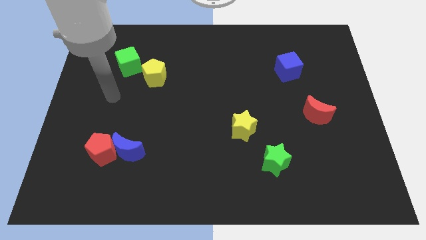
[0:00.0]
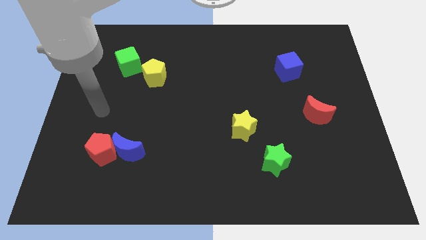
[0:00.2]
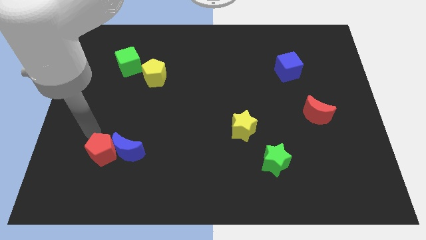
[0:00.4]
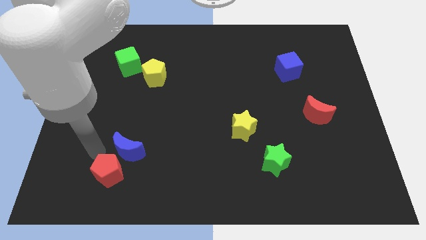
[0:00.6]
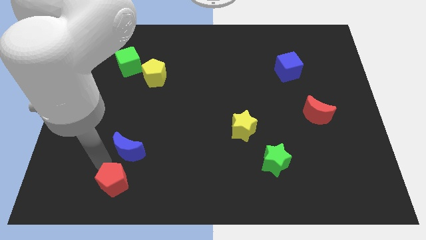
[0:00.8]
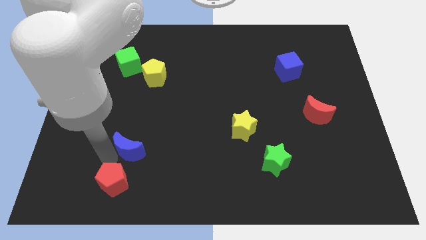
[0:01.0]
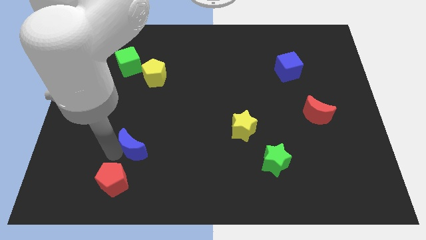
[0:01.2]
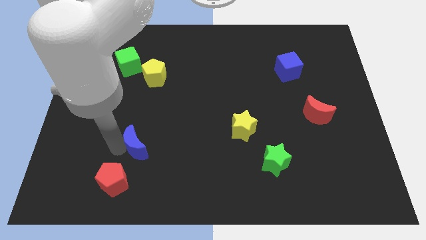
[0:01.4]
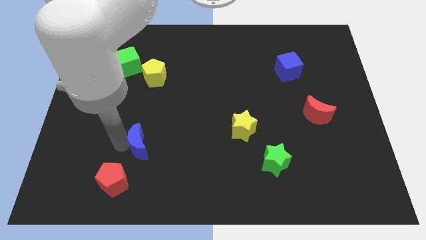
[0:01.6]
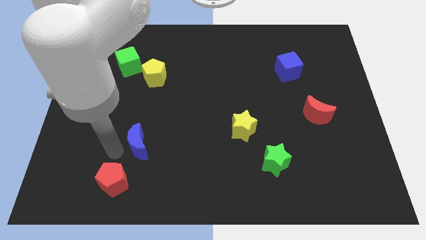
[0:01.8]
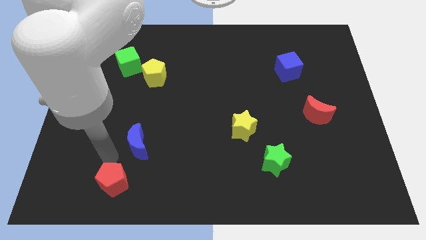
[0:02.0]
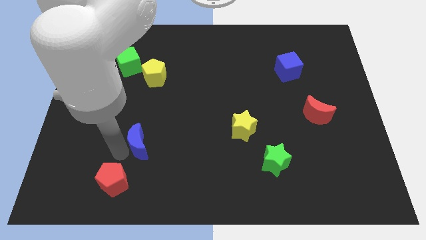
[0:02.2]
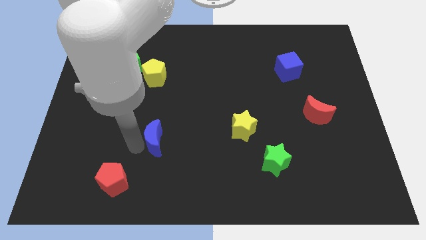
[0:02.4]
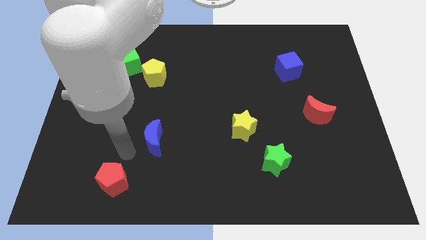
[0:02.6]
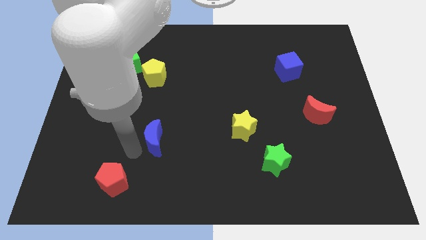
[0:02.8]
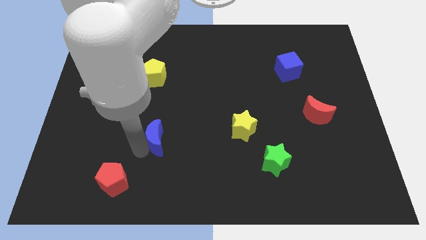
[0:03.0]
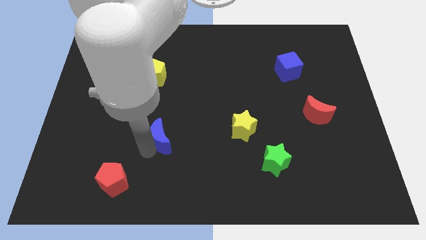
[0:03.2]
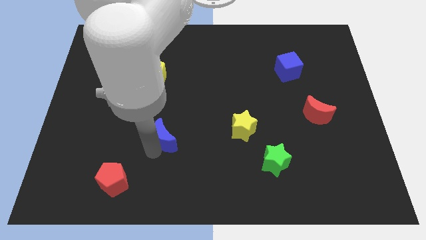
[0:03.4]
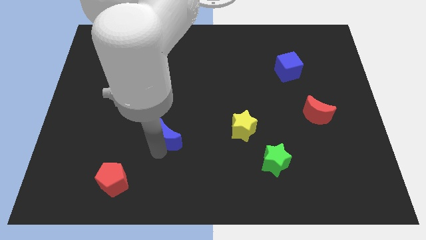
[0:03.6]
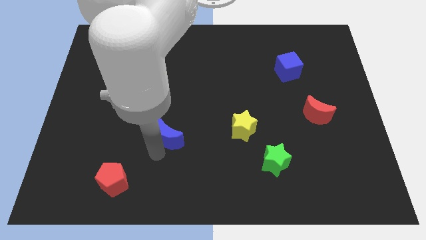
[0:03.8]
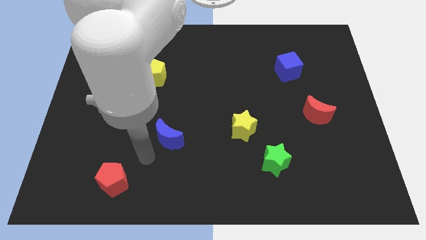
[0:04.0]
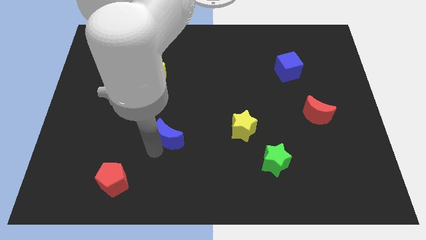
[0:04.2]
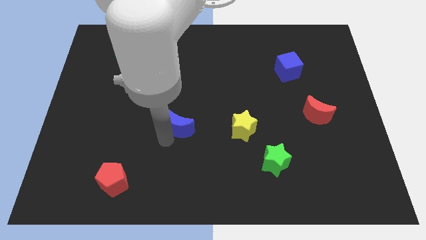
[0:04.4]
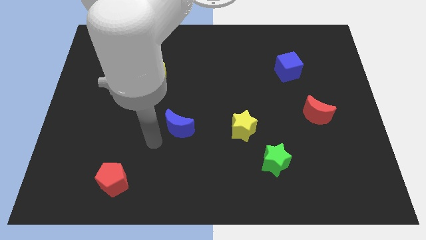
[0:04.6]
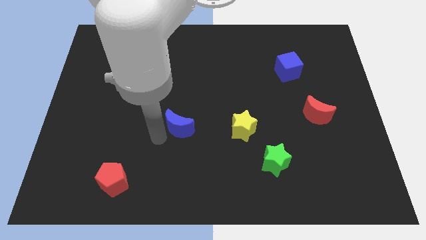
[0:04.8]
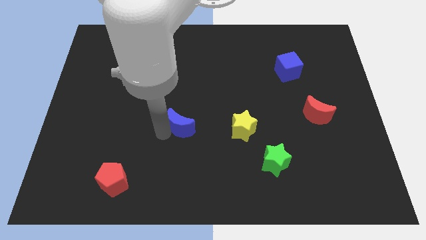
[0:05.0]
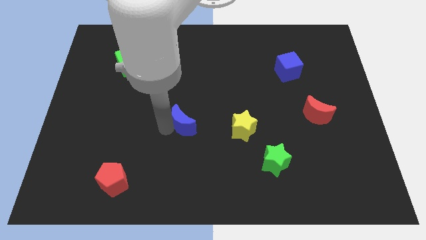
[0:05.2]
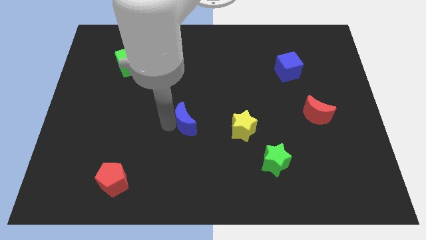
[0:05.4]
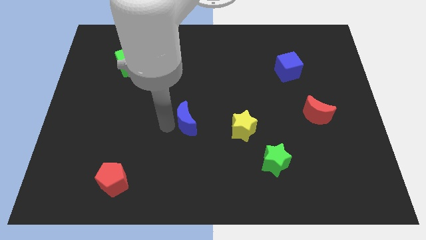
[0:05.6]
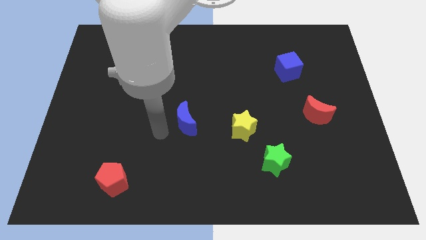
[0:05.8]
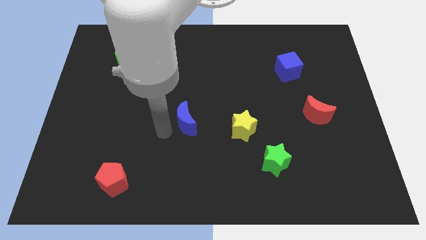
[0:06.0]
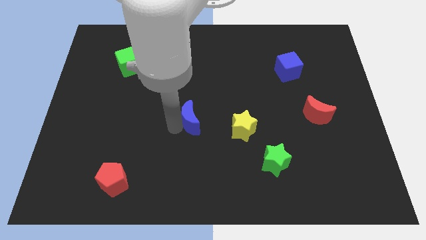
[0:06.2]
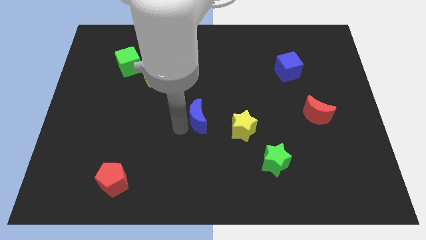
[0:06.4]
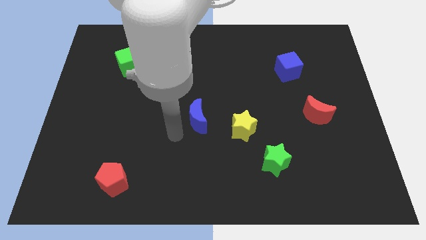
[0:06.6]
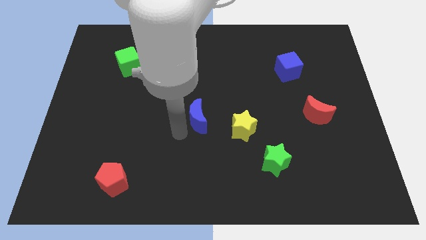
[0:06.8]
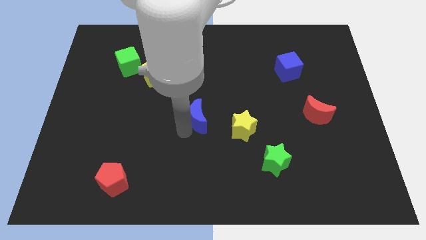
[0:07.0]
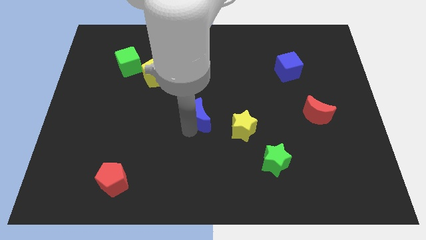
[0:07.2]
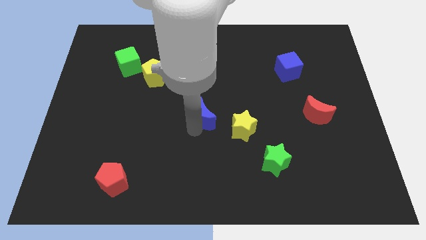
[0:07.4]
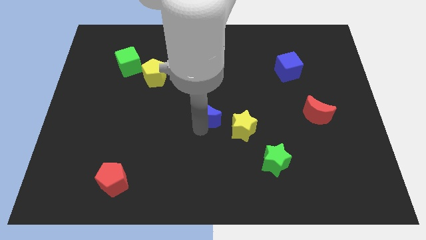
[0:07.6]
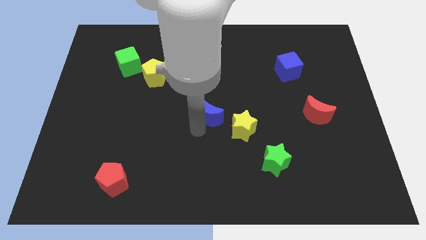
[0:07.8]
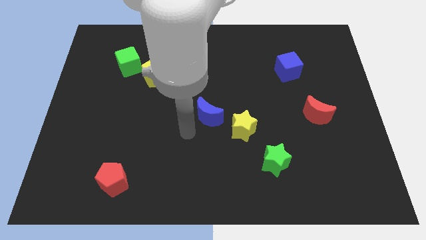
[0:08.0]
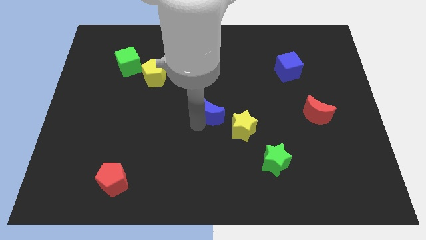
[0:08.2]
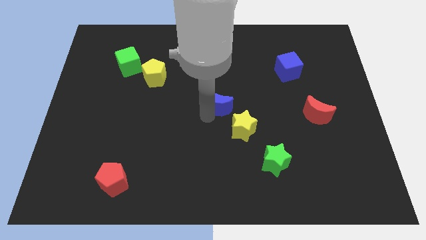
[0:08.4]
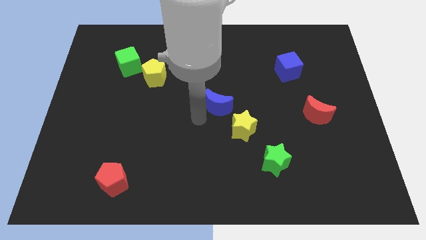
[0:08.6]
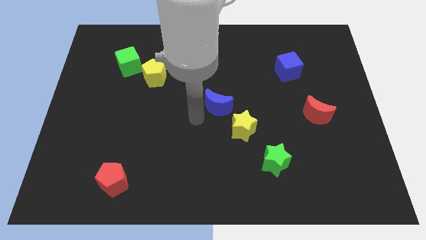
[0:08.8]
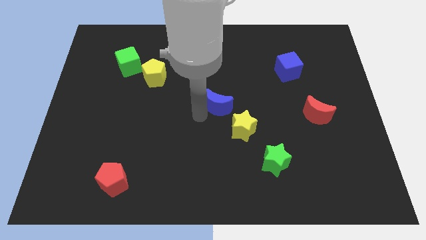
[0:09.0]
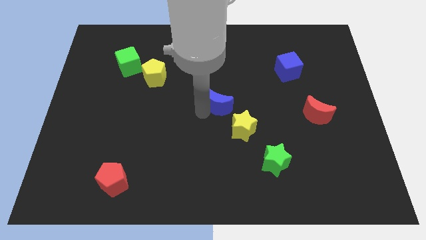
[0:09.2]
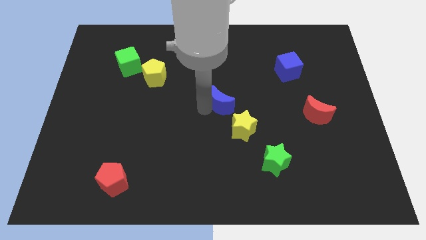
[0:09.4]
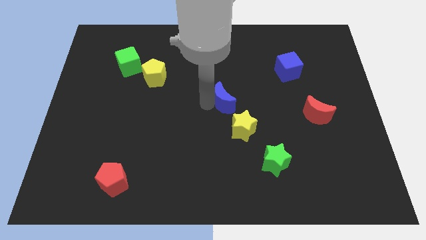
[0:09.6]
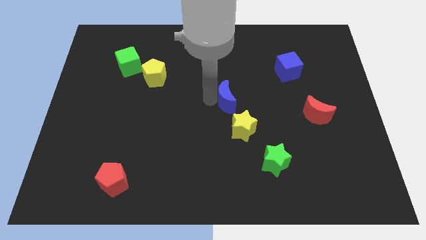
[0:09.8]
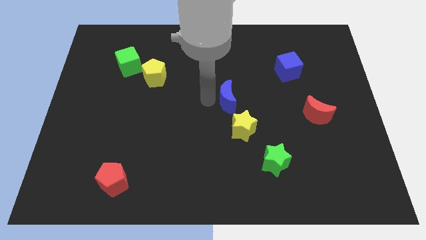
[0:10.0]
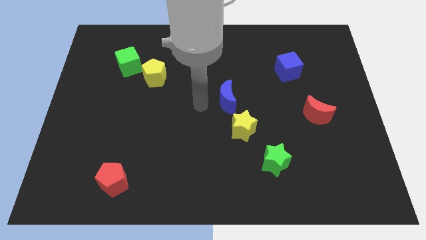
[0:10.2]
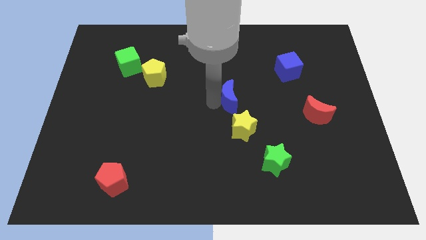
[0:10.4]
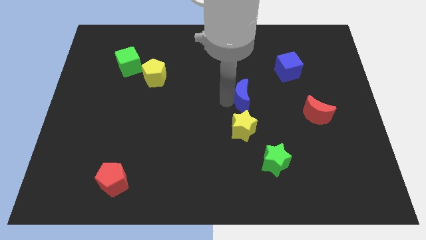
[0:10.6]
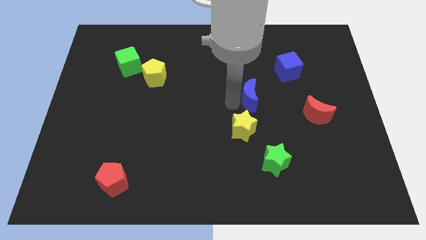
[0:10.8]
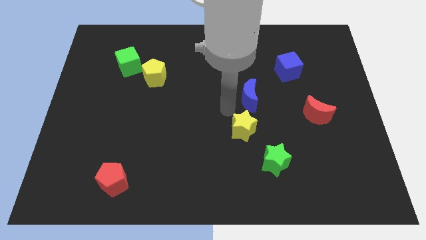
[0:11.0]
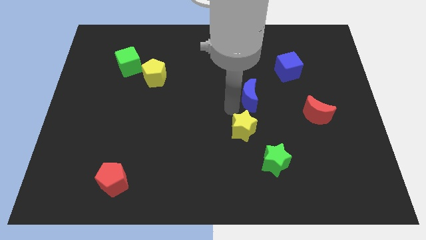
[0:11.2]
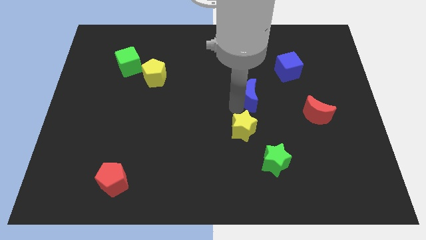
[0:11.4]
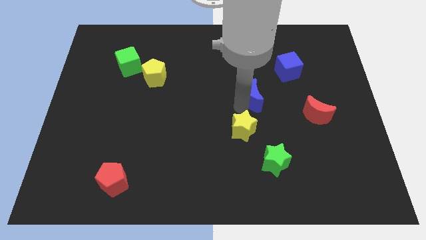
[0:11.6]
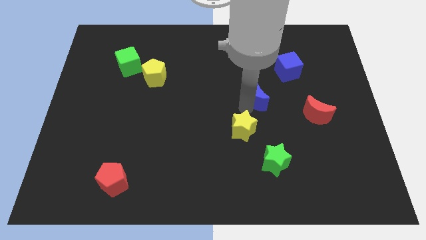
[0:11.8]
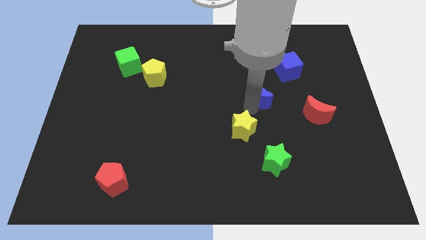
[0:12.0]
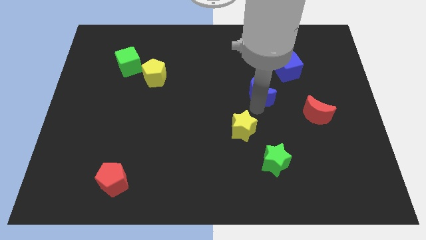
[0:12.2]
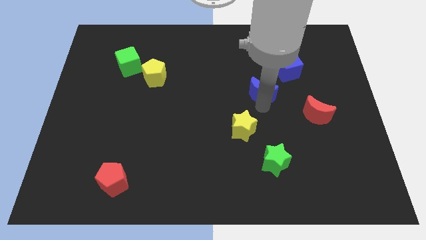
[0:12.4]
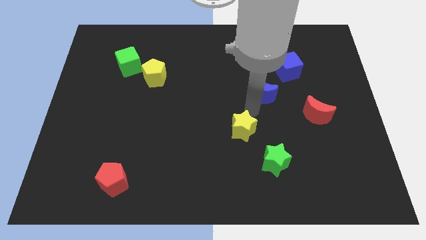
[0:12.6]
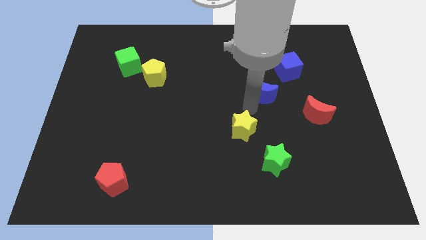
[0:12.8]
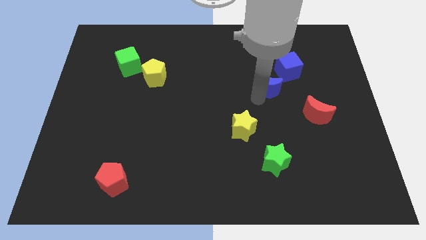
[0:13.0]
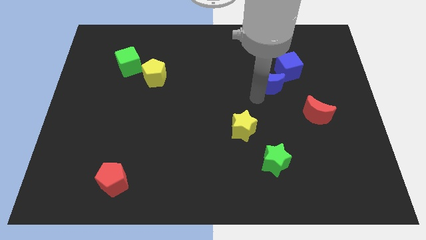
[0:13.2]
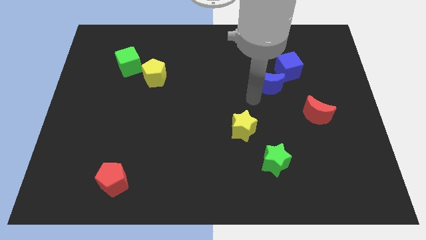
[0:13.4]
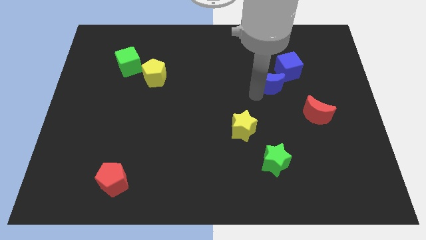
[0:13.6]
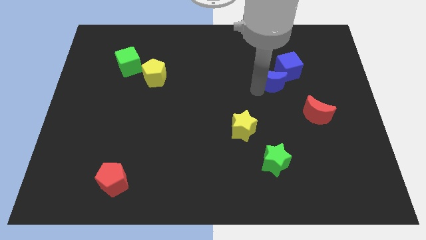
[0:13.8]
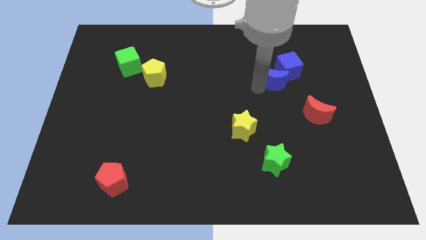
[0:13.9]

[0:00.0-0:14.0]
put the blue moon next to the blue cube
